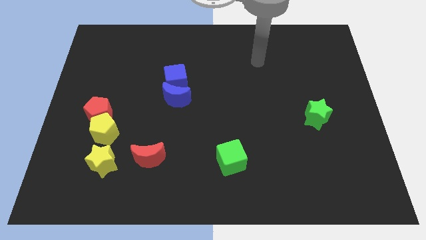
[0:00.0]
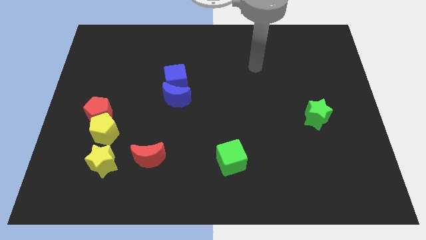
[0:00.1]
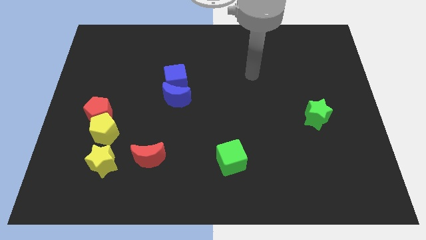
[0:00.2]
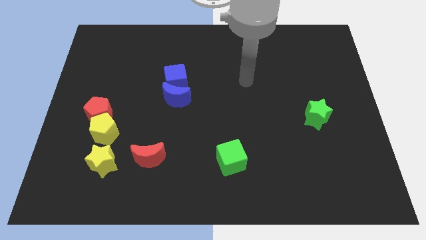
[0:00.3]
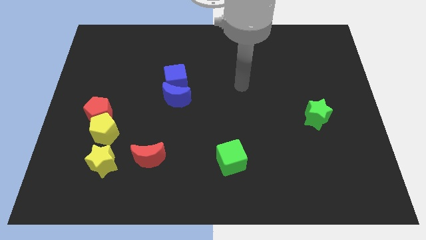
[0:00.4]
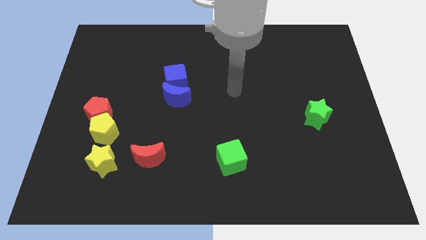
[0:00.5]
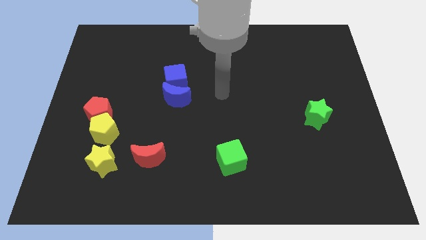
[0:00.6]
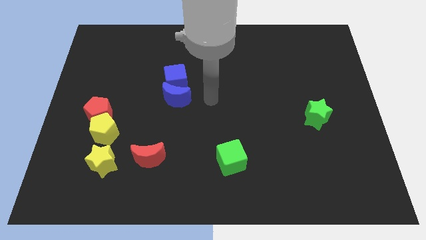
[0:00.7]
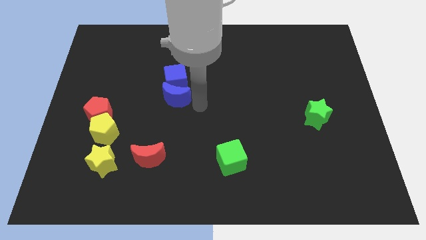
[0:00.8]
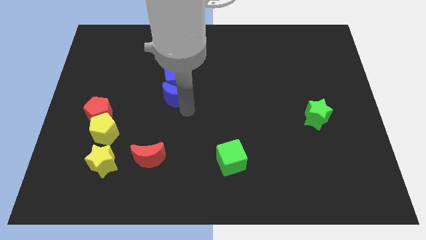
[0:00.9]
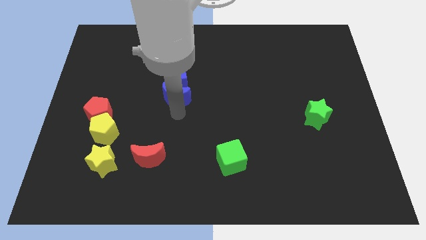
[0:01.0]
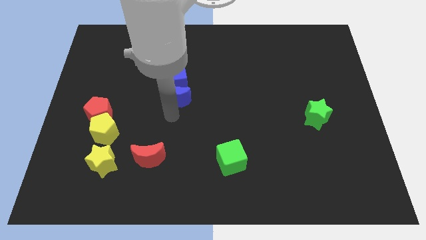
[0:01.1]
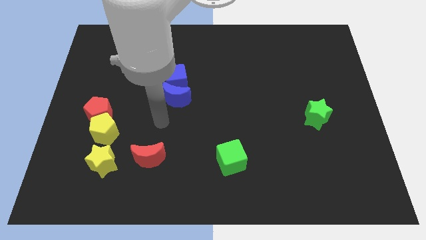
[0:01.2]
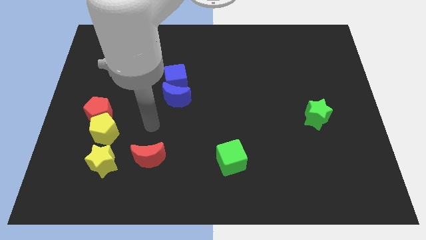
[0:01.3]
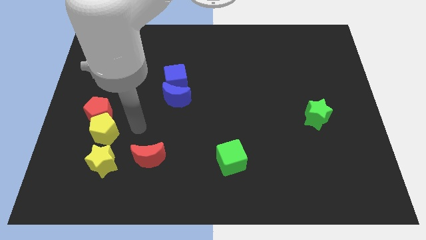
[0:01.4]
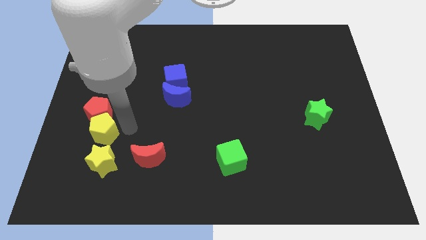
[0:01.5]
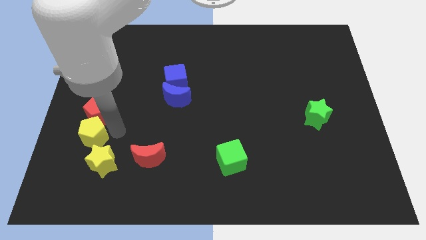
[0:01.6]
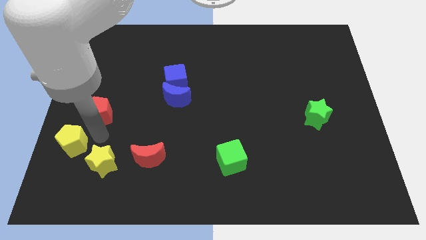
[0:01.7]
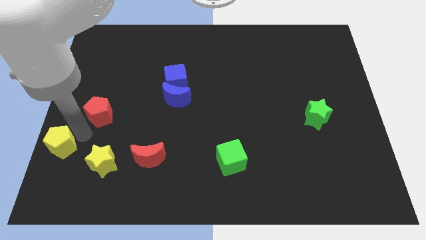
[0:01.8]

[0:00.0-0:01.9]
pull the red pentagon apart from the yellow pentagon

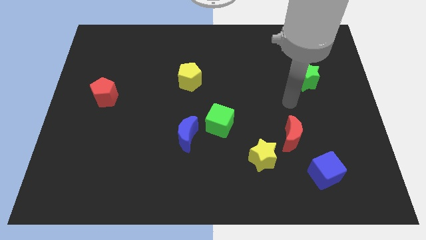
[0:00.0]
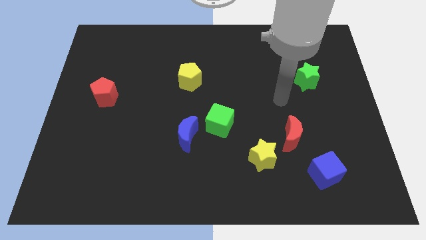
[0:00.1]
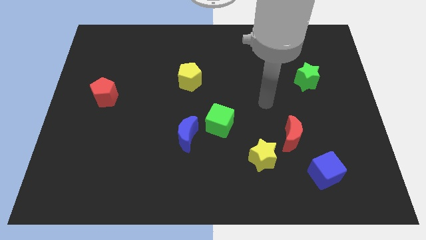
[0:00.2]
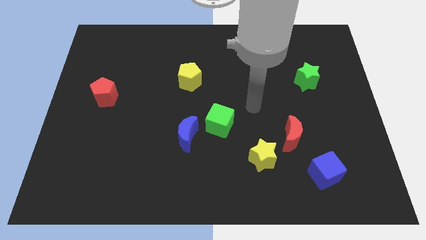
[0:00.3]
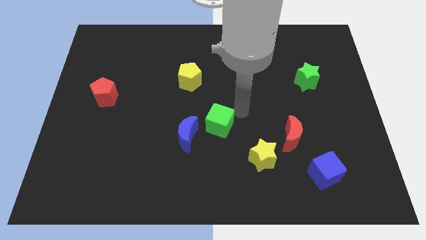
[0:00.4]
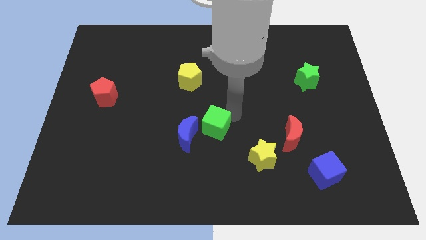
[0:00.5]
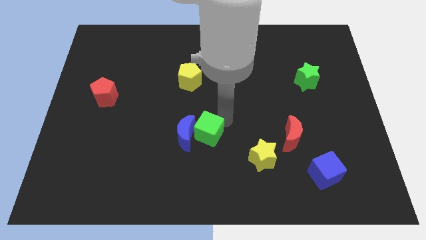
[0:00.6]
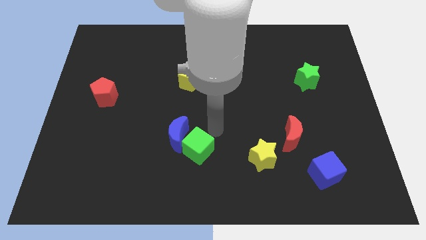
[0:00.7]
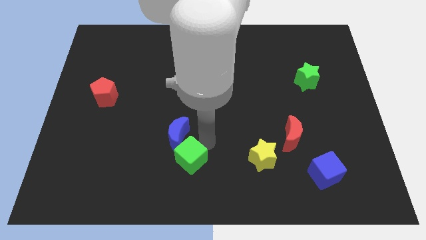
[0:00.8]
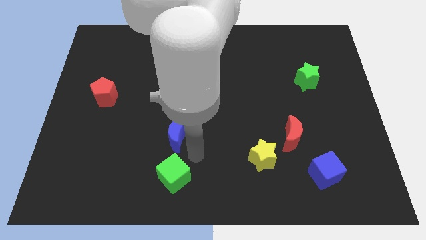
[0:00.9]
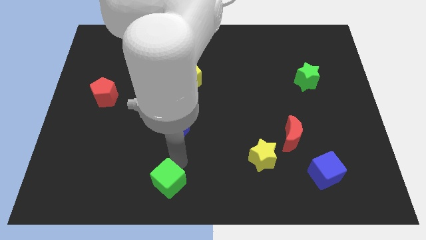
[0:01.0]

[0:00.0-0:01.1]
move the blue moon away from the green cube

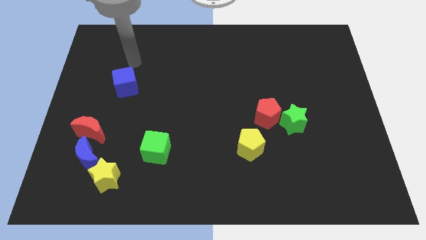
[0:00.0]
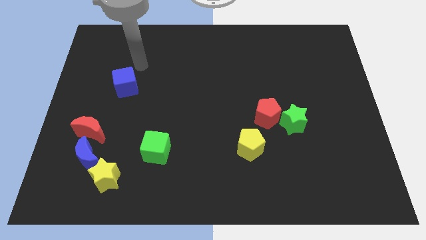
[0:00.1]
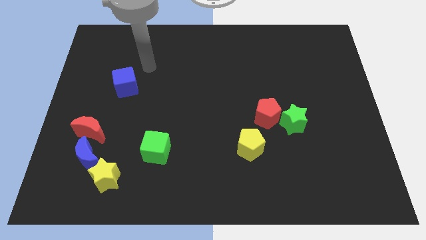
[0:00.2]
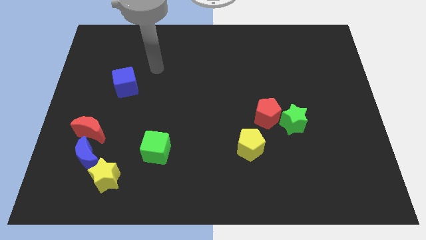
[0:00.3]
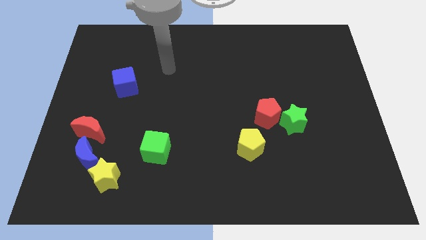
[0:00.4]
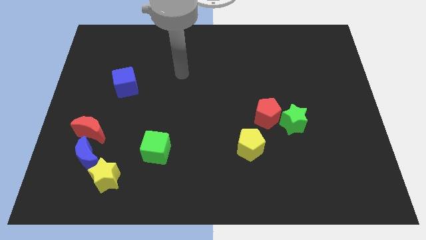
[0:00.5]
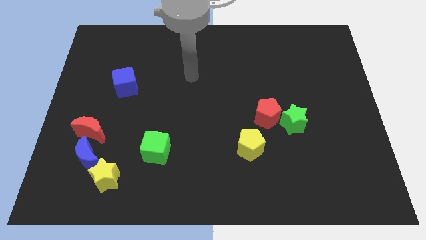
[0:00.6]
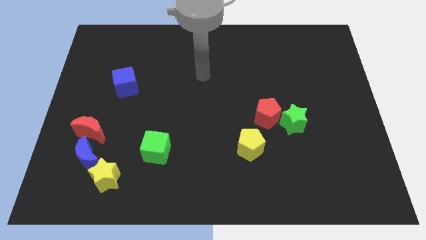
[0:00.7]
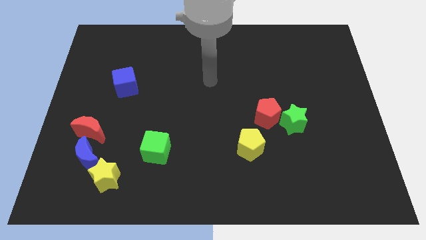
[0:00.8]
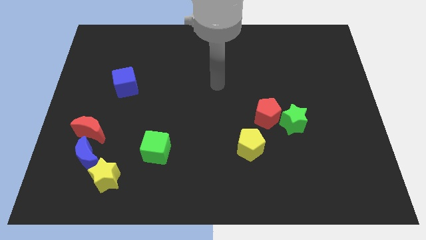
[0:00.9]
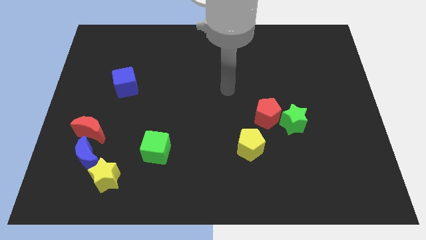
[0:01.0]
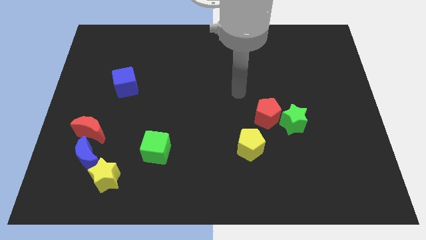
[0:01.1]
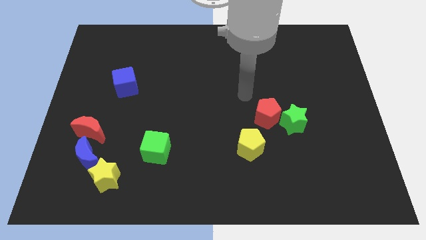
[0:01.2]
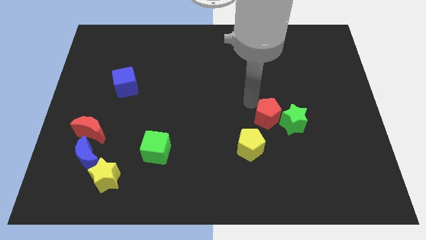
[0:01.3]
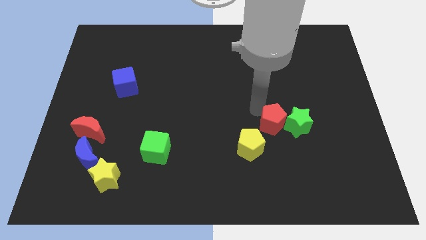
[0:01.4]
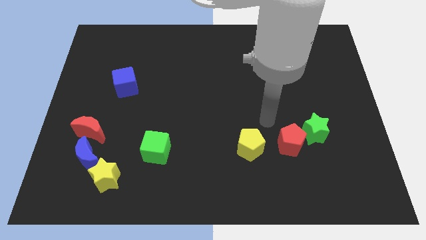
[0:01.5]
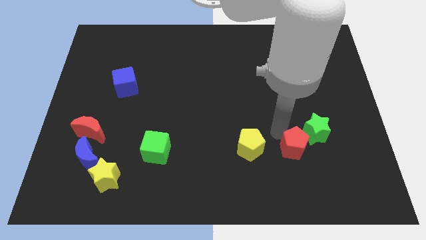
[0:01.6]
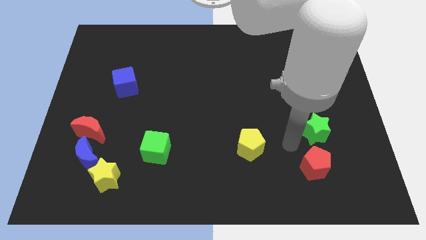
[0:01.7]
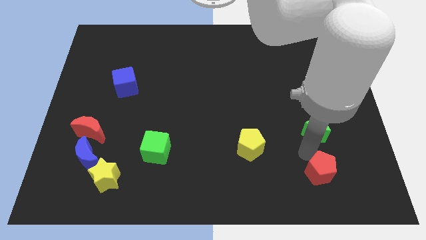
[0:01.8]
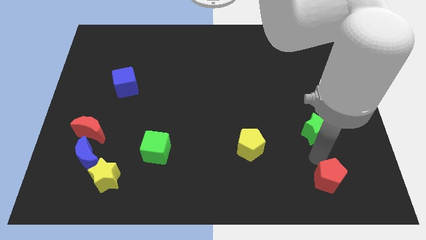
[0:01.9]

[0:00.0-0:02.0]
separate the green star from the red pentagon

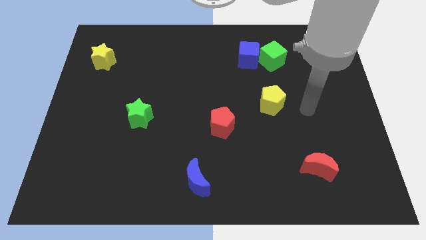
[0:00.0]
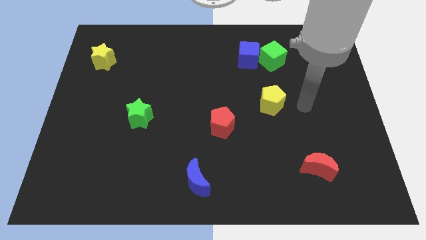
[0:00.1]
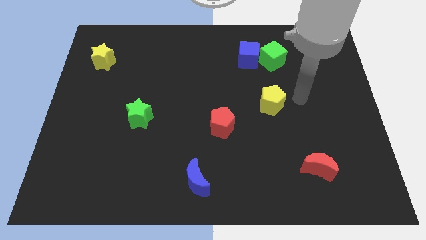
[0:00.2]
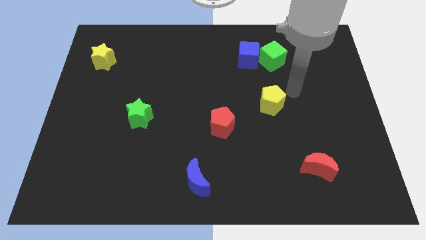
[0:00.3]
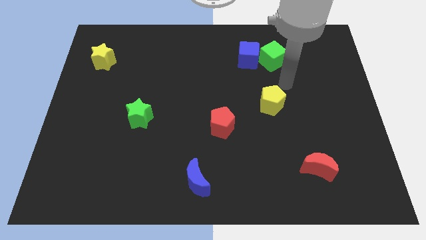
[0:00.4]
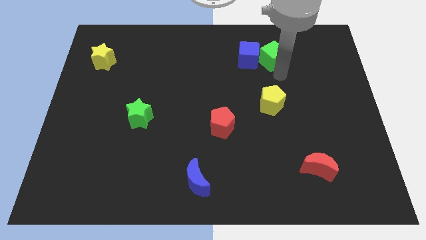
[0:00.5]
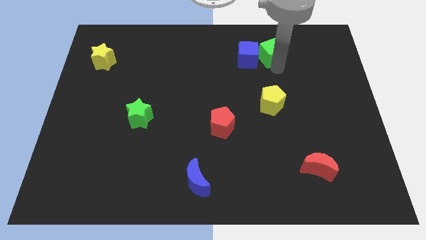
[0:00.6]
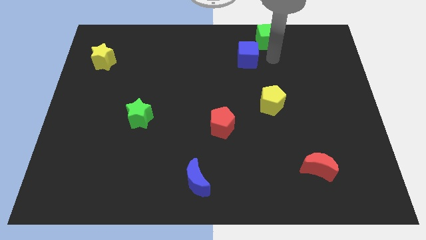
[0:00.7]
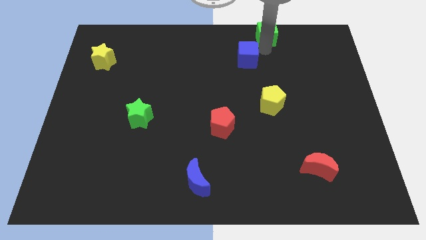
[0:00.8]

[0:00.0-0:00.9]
move the blue cube away from the green cube

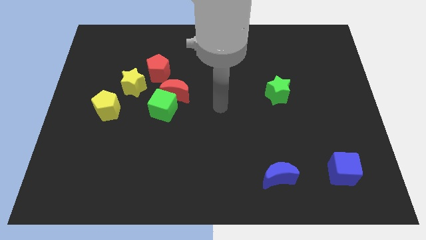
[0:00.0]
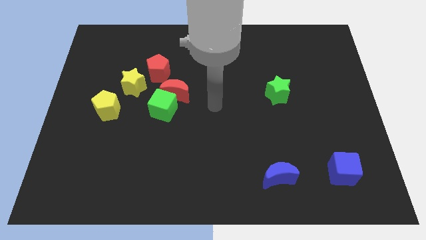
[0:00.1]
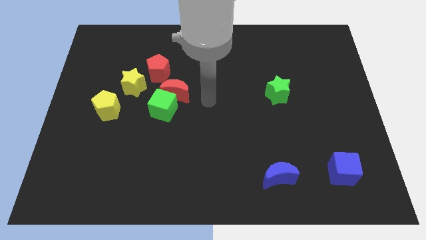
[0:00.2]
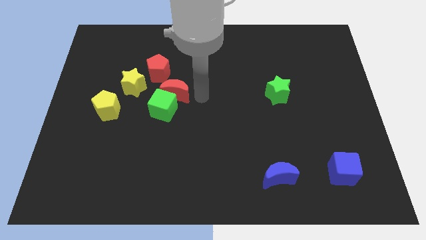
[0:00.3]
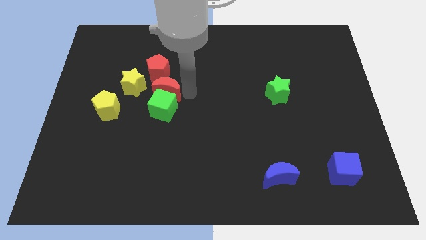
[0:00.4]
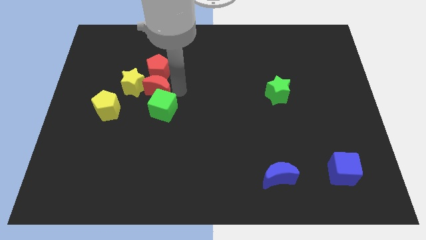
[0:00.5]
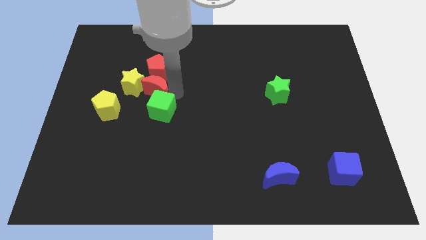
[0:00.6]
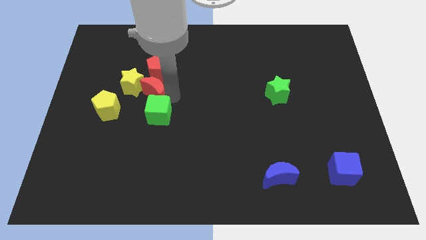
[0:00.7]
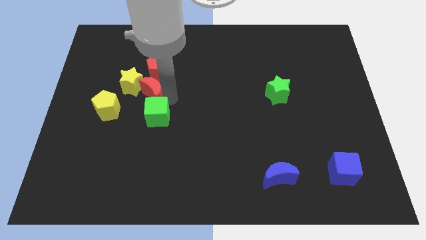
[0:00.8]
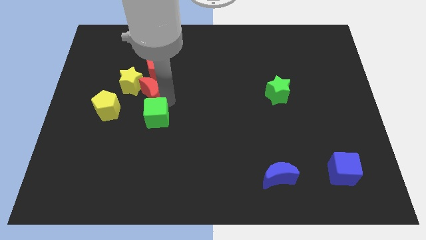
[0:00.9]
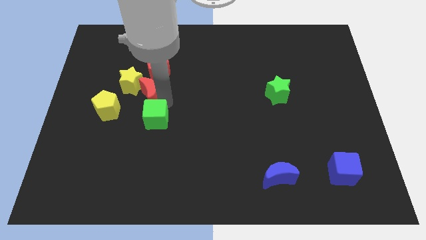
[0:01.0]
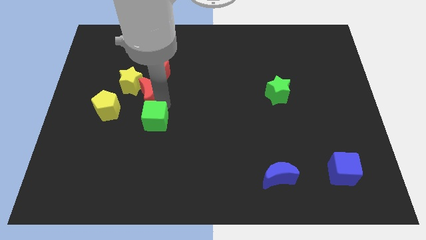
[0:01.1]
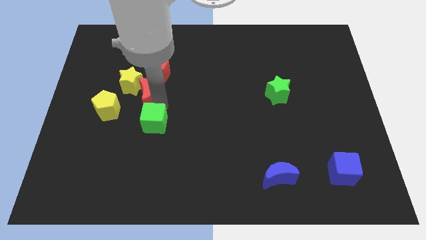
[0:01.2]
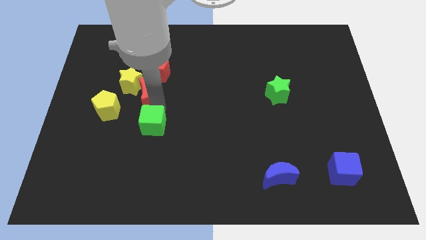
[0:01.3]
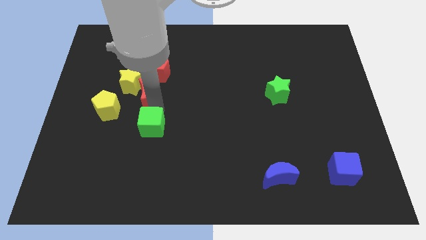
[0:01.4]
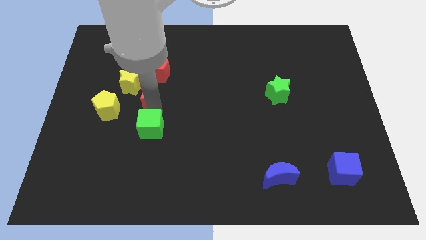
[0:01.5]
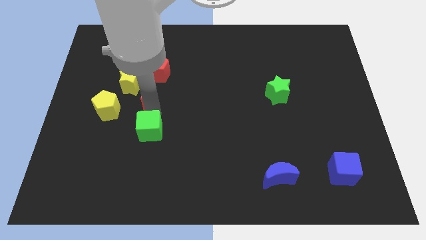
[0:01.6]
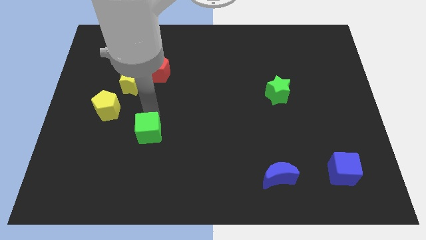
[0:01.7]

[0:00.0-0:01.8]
pull the green cube apart from the red moon

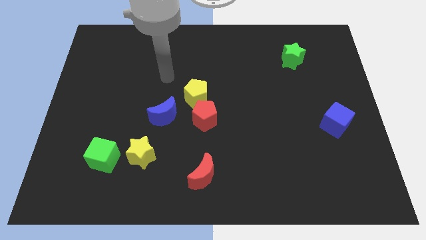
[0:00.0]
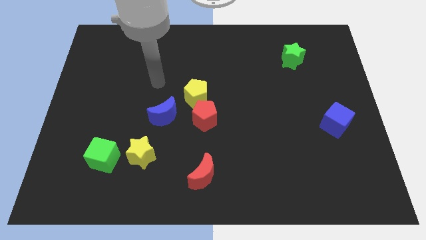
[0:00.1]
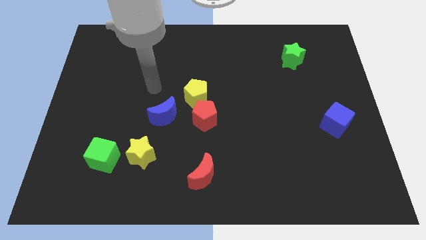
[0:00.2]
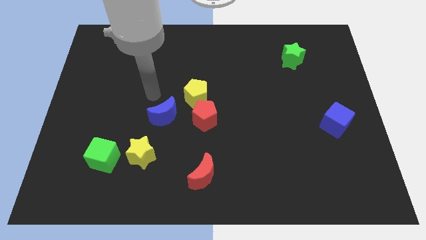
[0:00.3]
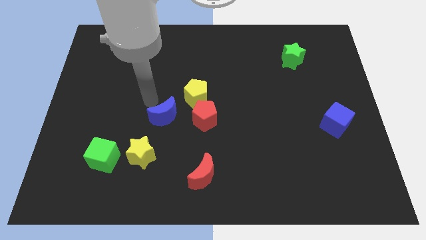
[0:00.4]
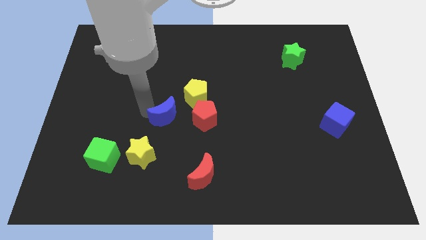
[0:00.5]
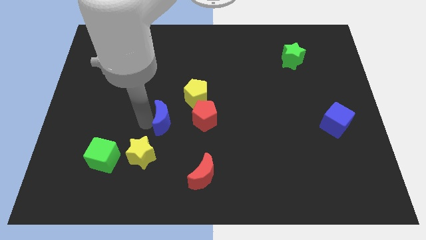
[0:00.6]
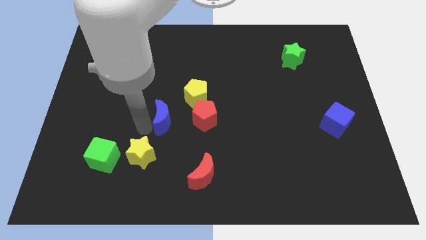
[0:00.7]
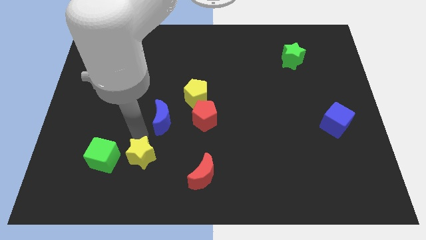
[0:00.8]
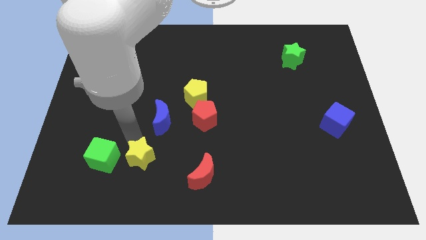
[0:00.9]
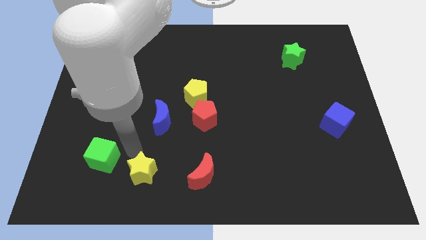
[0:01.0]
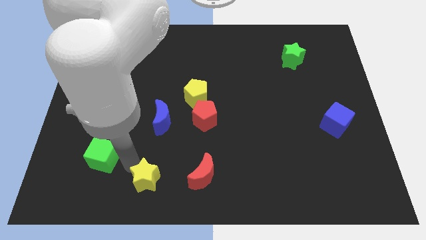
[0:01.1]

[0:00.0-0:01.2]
separate the green cube from the yellow star

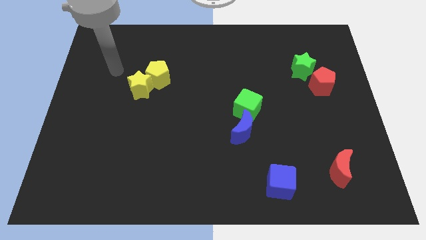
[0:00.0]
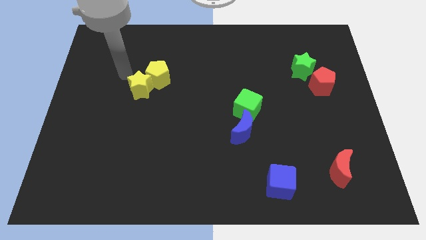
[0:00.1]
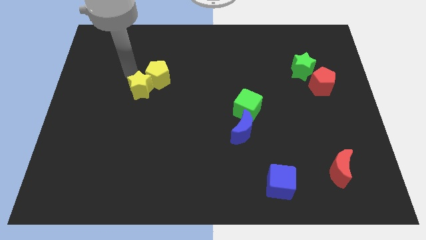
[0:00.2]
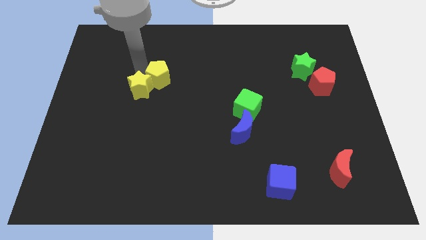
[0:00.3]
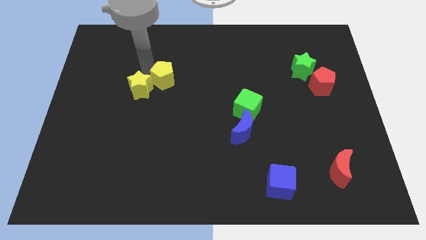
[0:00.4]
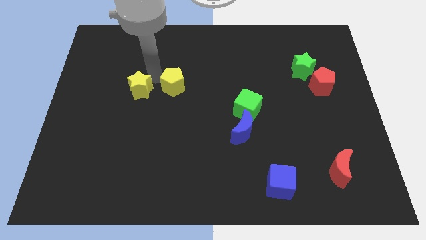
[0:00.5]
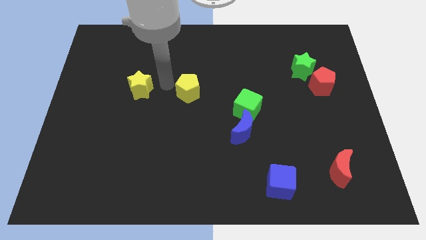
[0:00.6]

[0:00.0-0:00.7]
separate the yellow star from the yellow pentagon
